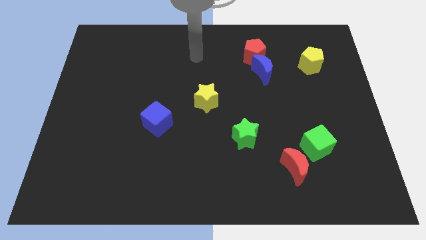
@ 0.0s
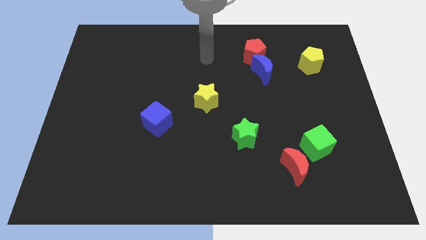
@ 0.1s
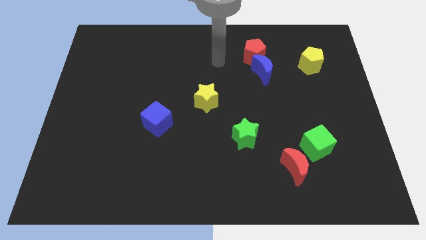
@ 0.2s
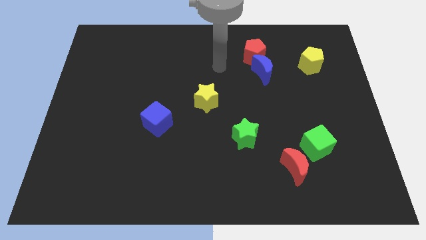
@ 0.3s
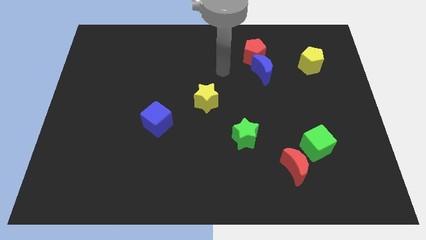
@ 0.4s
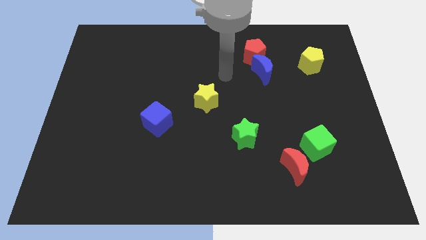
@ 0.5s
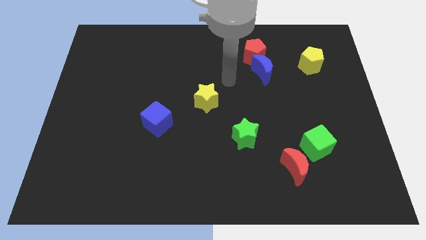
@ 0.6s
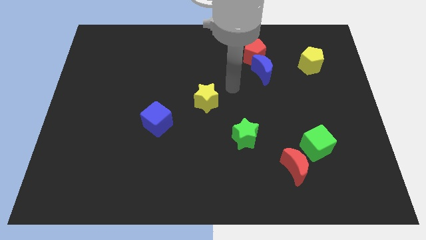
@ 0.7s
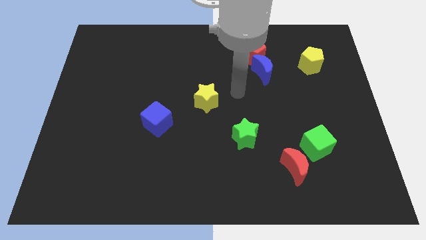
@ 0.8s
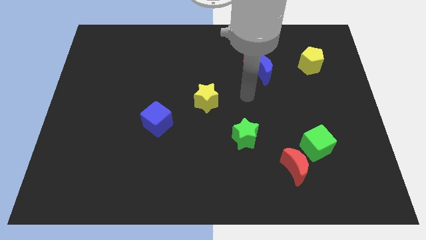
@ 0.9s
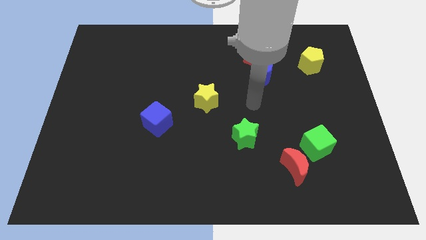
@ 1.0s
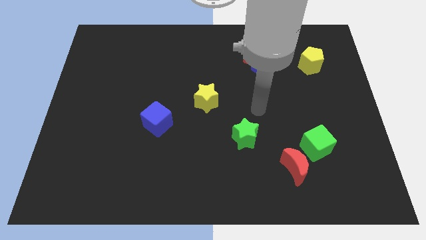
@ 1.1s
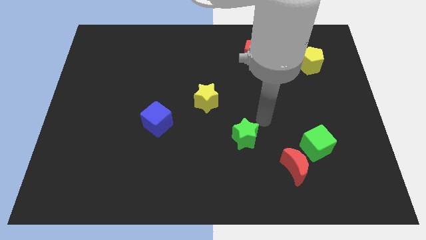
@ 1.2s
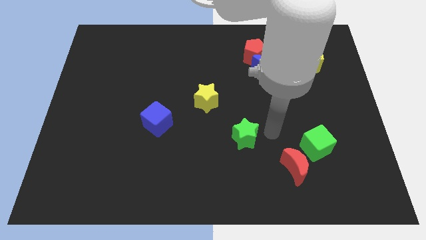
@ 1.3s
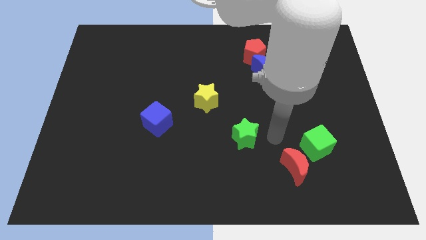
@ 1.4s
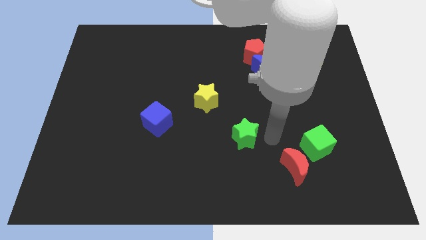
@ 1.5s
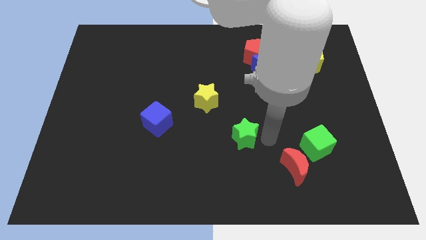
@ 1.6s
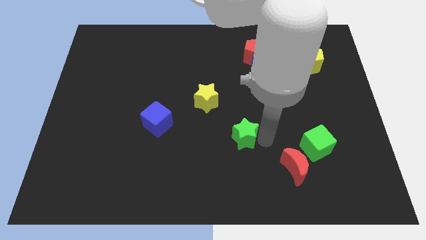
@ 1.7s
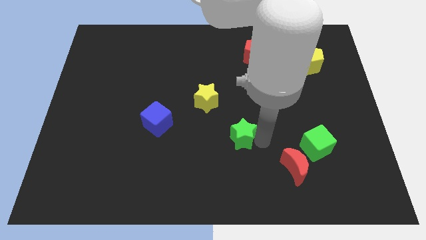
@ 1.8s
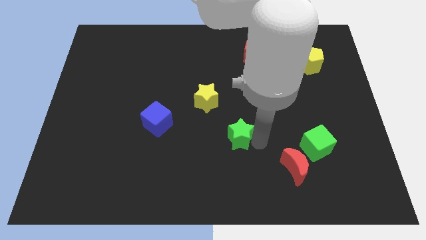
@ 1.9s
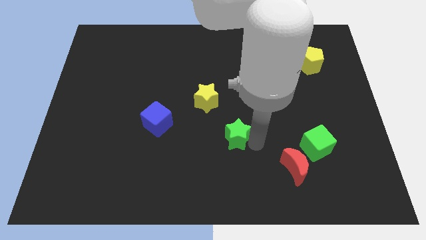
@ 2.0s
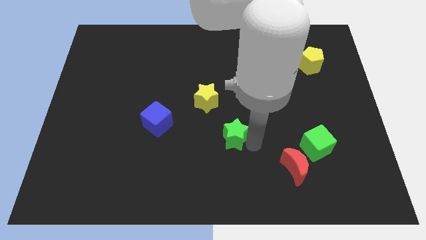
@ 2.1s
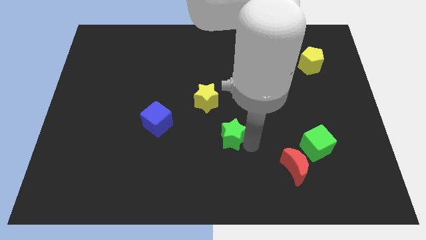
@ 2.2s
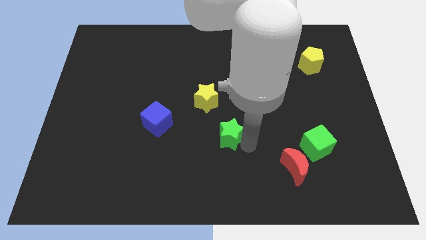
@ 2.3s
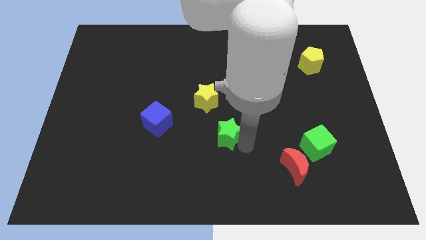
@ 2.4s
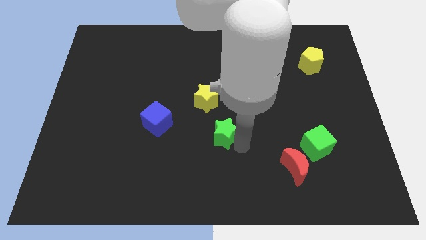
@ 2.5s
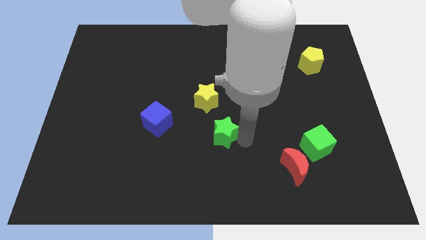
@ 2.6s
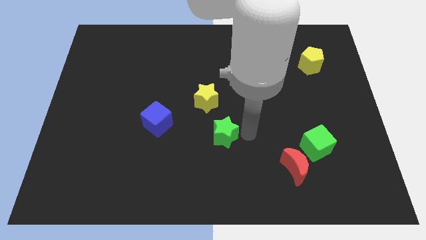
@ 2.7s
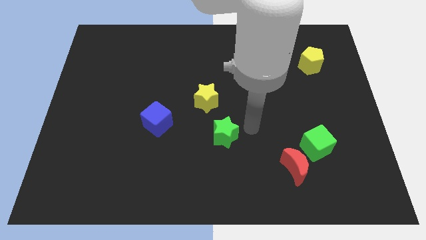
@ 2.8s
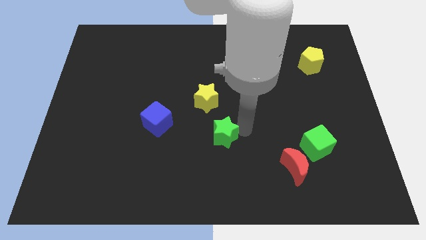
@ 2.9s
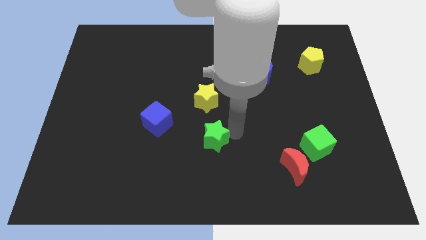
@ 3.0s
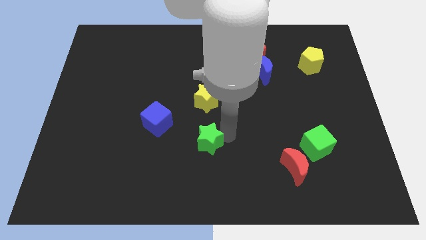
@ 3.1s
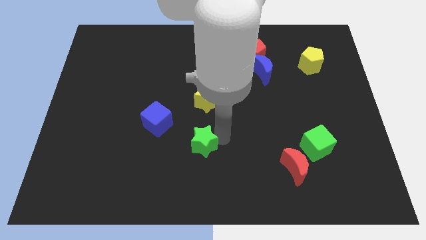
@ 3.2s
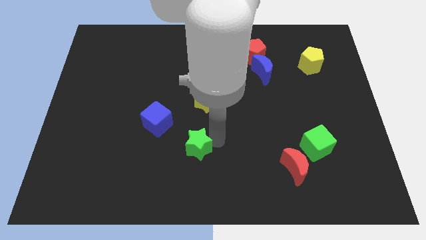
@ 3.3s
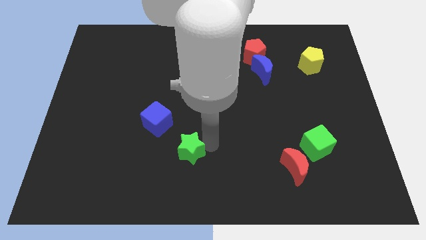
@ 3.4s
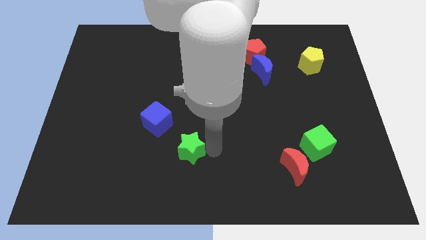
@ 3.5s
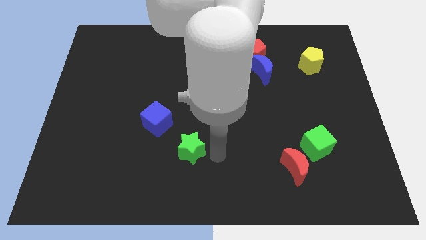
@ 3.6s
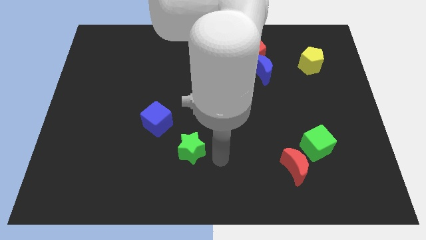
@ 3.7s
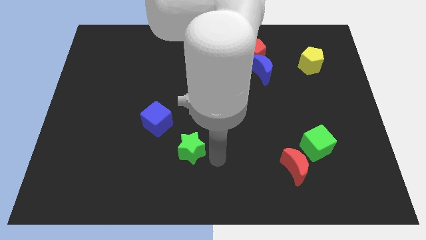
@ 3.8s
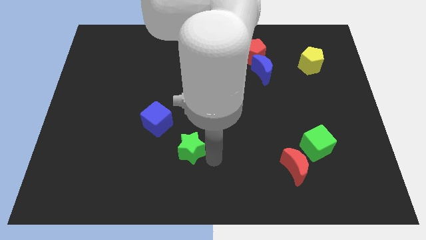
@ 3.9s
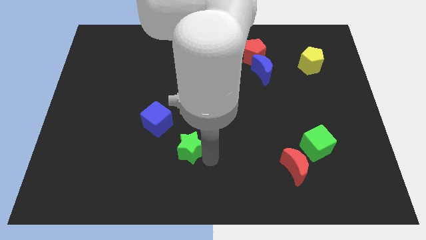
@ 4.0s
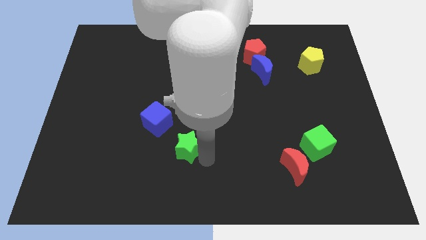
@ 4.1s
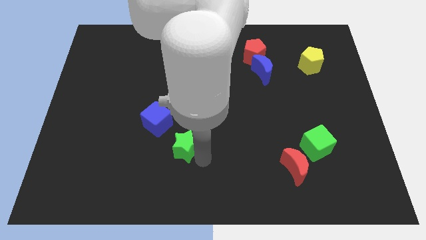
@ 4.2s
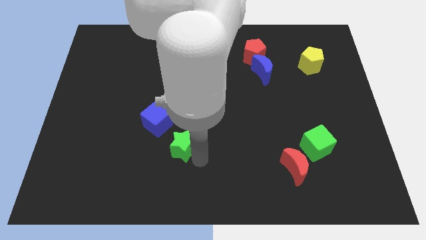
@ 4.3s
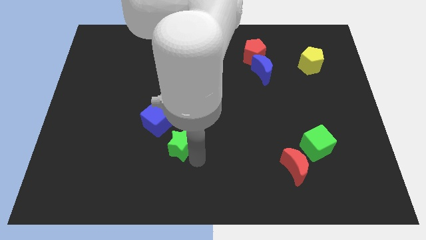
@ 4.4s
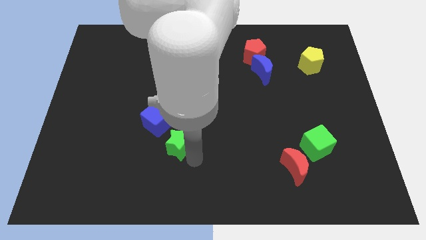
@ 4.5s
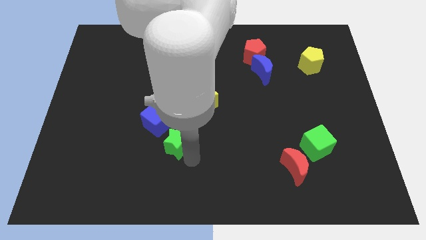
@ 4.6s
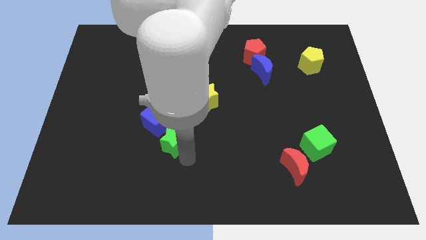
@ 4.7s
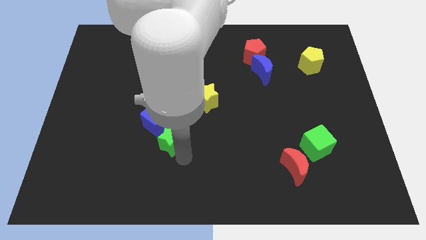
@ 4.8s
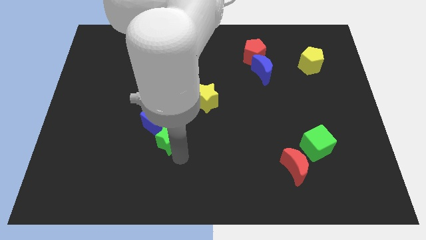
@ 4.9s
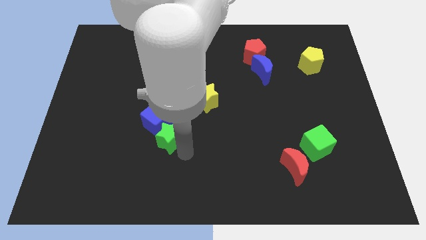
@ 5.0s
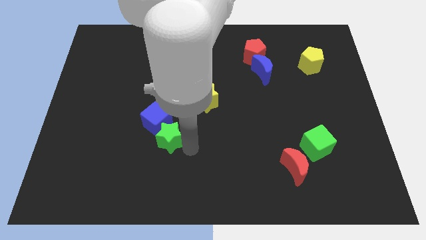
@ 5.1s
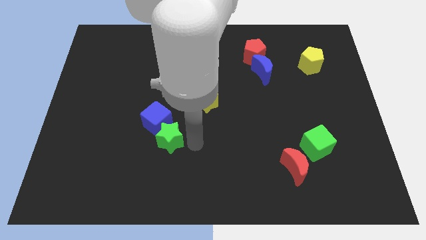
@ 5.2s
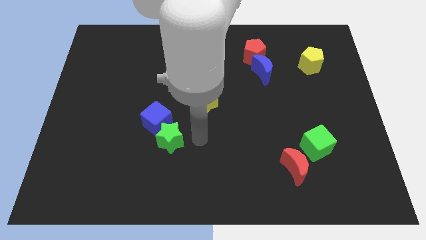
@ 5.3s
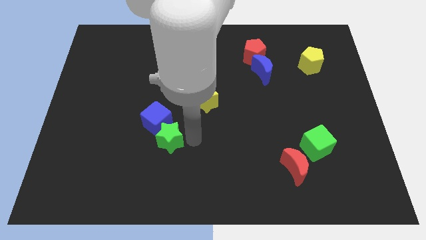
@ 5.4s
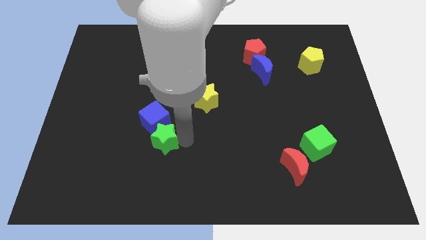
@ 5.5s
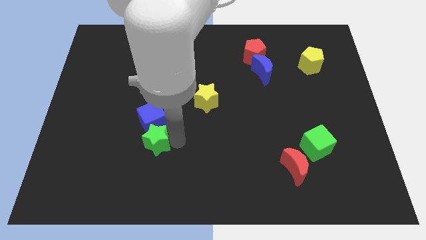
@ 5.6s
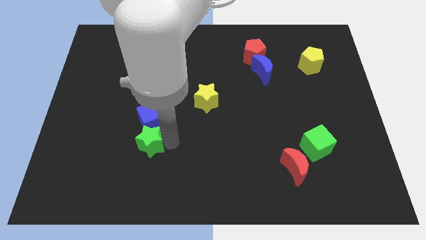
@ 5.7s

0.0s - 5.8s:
push the green star left

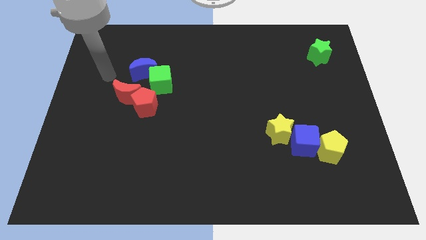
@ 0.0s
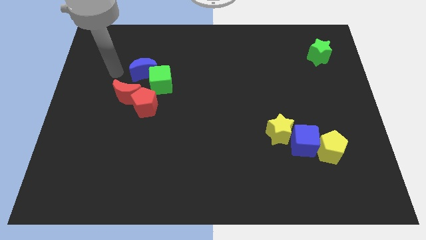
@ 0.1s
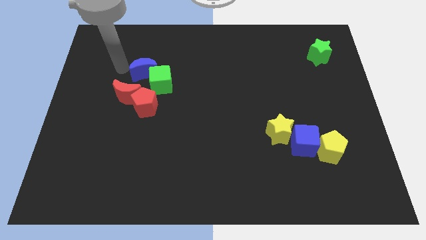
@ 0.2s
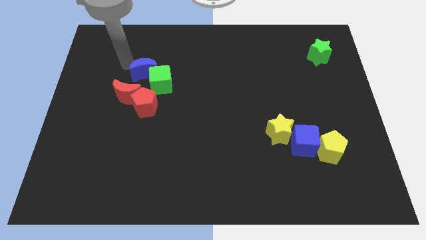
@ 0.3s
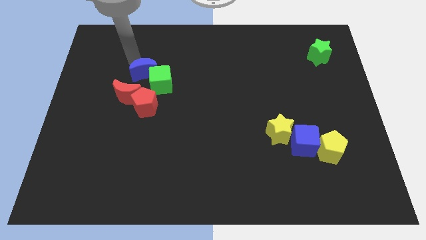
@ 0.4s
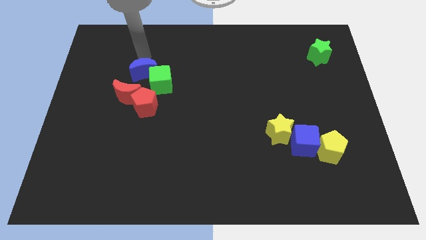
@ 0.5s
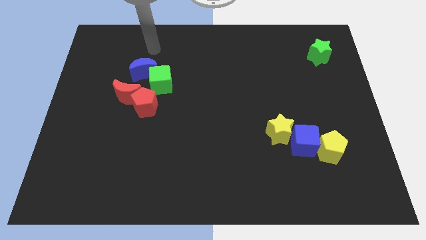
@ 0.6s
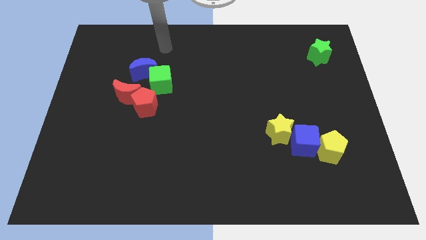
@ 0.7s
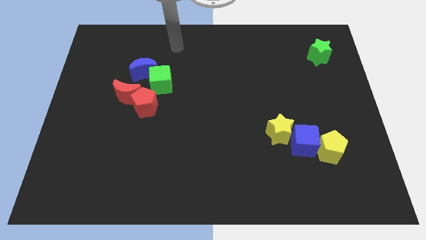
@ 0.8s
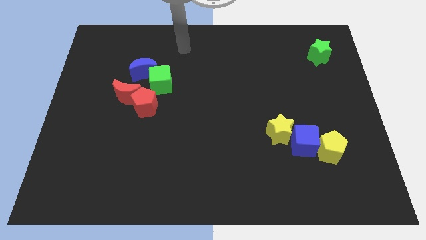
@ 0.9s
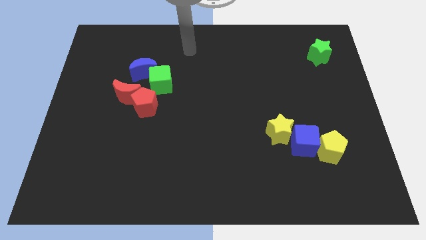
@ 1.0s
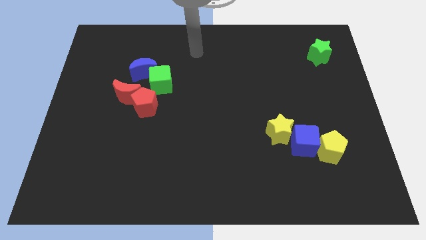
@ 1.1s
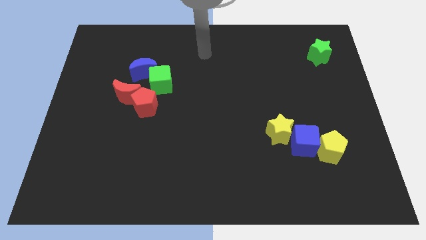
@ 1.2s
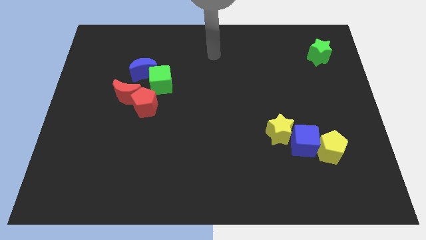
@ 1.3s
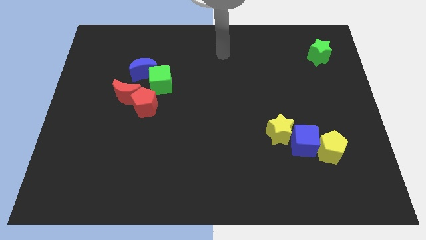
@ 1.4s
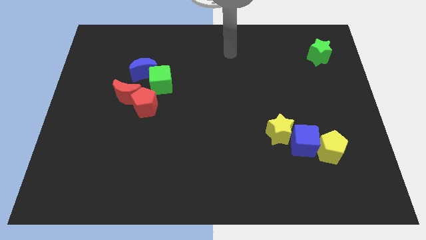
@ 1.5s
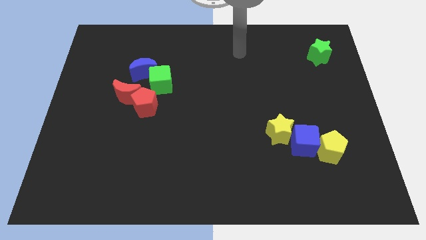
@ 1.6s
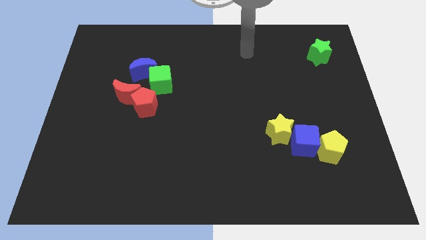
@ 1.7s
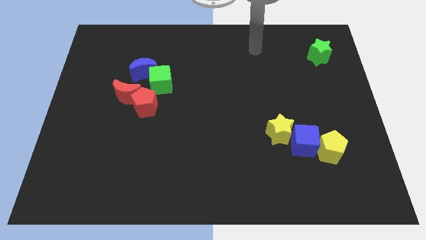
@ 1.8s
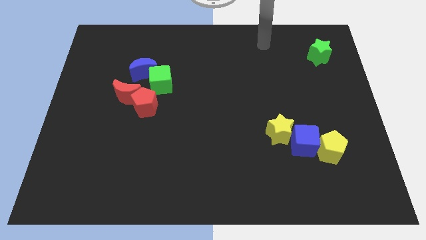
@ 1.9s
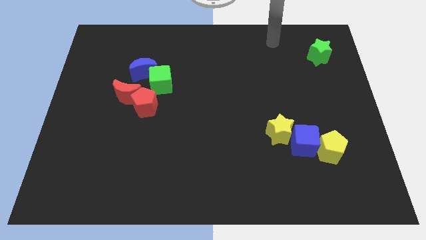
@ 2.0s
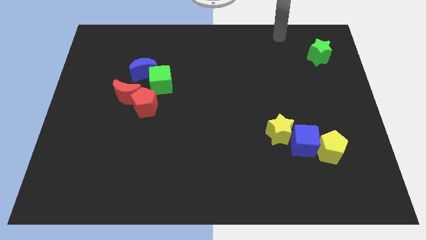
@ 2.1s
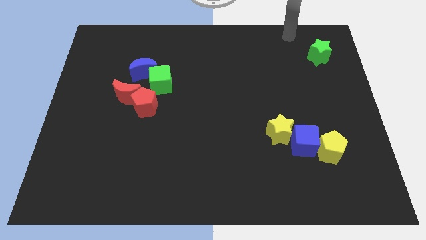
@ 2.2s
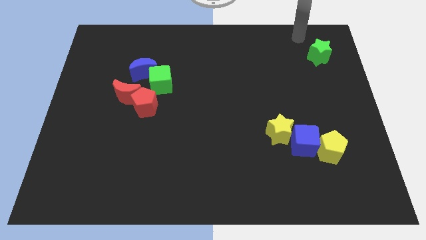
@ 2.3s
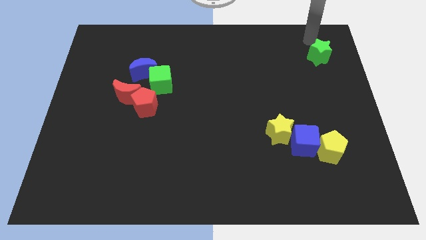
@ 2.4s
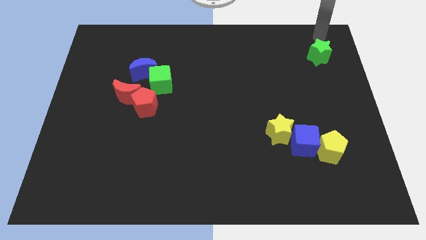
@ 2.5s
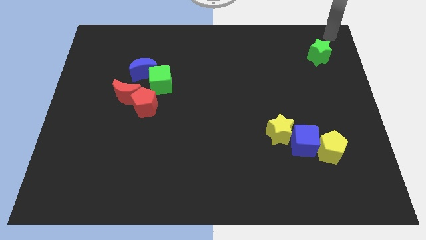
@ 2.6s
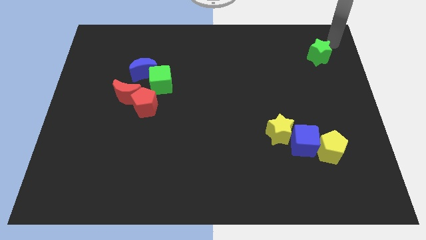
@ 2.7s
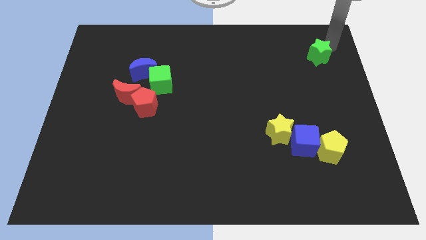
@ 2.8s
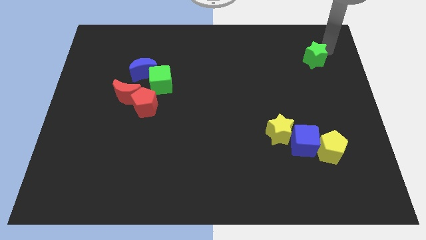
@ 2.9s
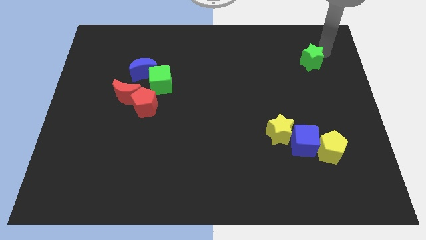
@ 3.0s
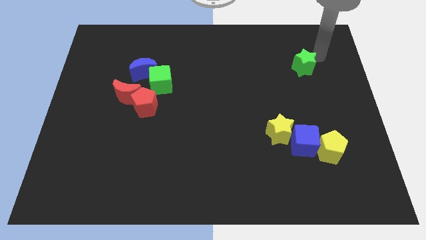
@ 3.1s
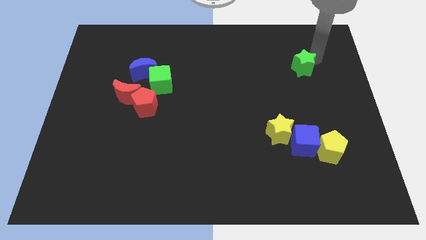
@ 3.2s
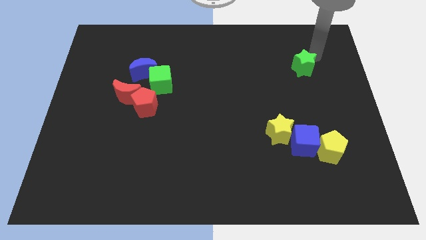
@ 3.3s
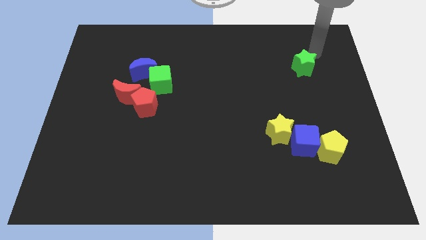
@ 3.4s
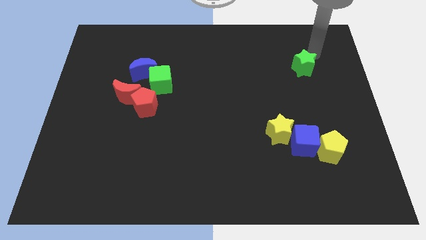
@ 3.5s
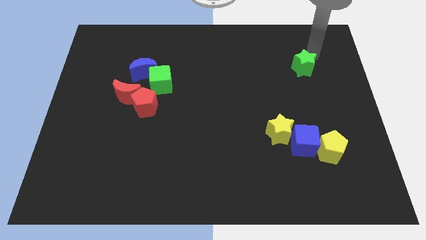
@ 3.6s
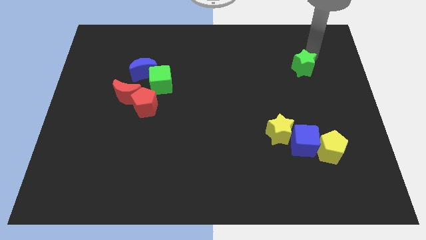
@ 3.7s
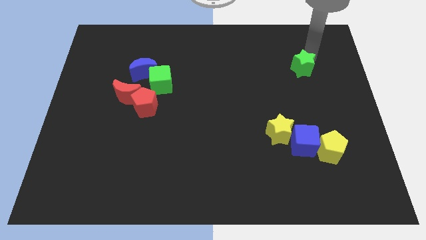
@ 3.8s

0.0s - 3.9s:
push the green star downwards and then to the left slightly
